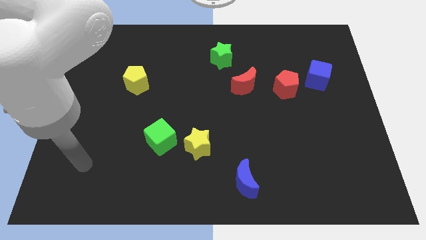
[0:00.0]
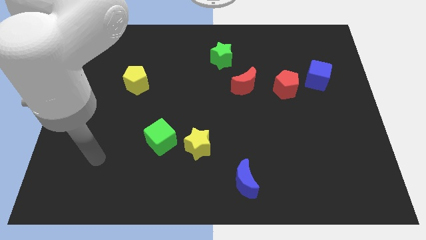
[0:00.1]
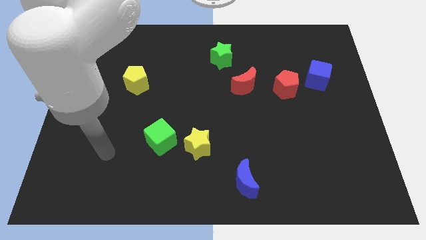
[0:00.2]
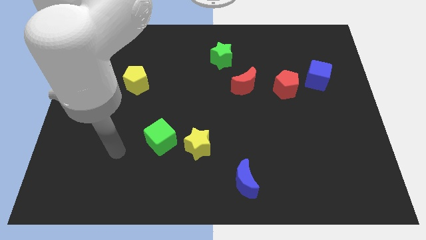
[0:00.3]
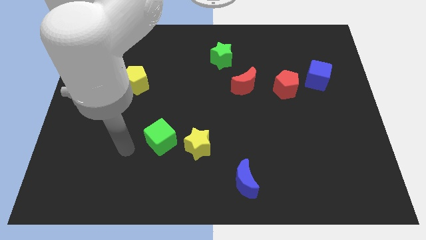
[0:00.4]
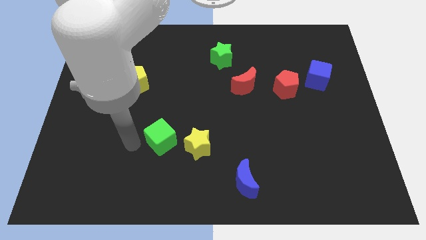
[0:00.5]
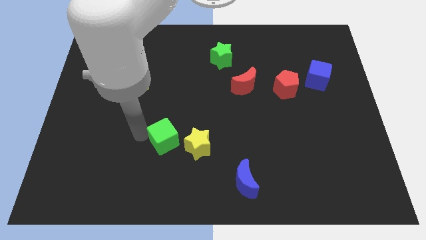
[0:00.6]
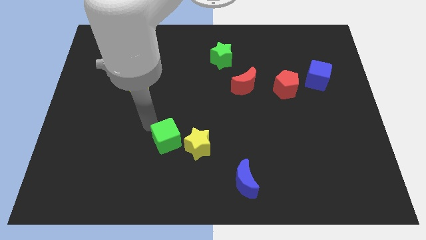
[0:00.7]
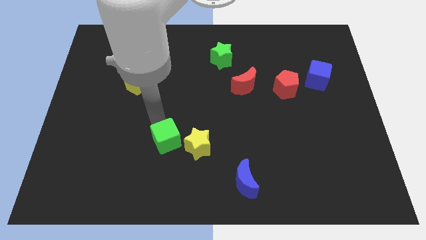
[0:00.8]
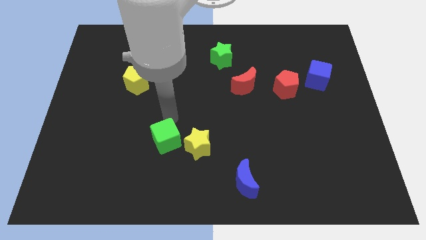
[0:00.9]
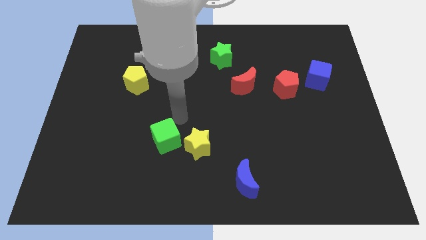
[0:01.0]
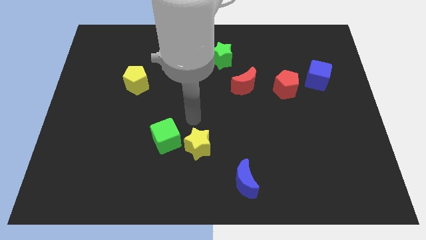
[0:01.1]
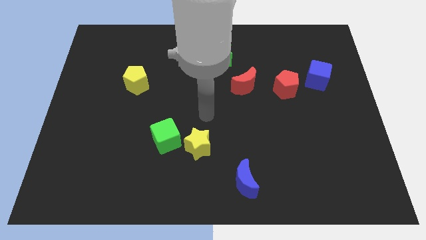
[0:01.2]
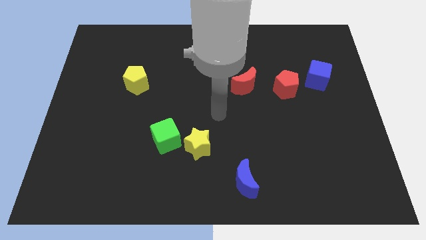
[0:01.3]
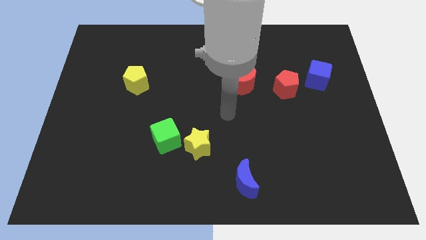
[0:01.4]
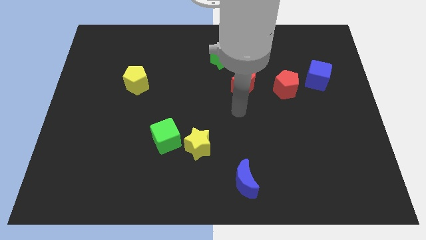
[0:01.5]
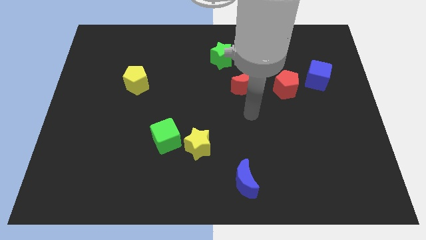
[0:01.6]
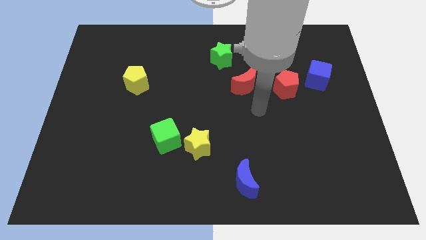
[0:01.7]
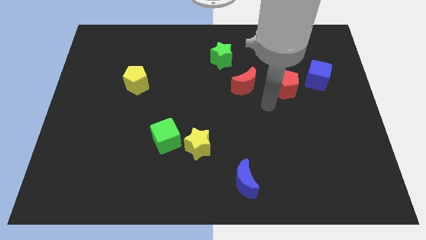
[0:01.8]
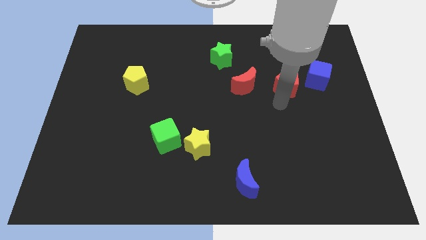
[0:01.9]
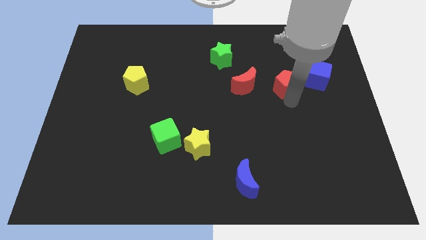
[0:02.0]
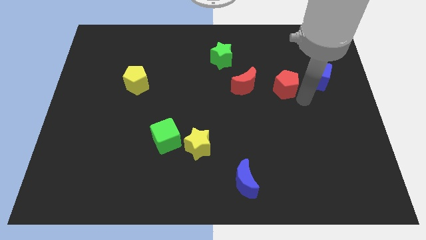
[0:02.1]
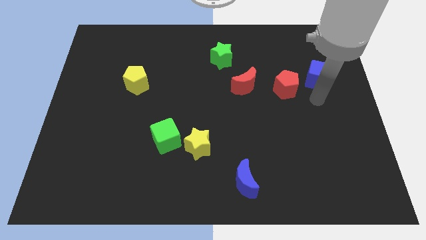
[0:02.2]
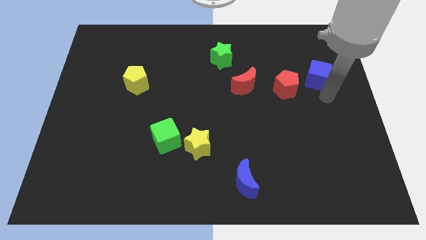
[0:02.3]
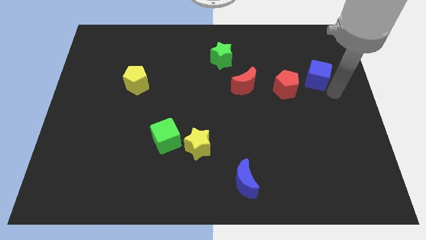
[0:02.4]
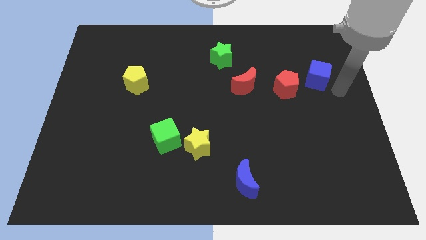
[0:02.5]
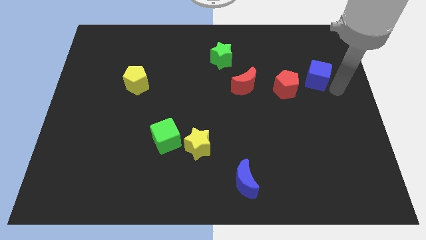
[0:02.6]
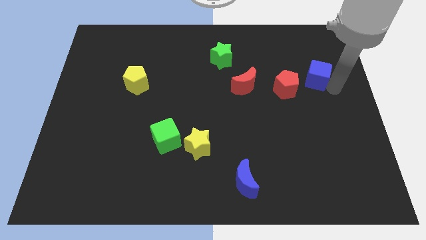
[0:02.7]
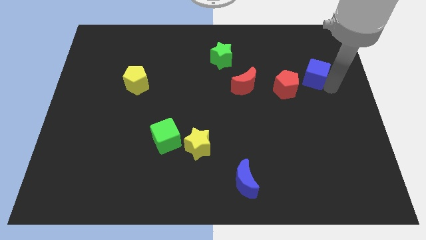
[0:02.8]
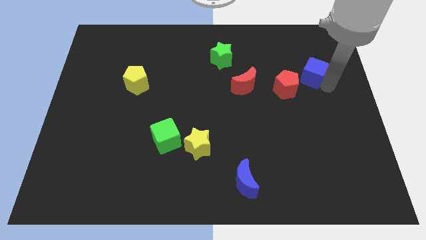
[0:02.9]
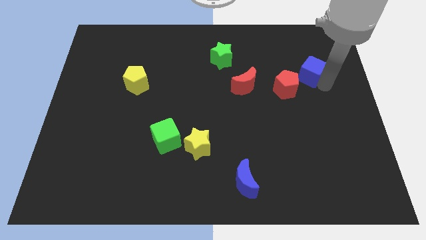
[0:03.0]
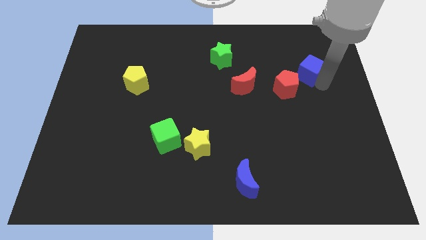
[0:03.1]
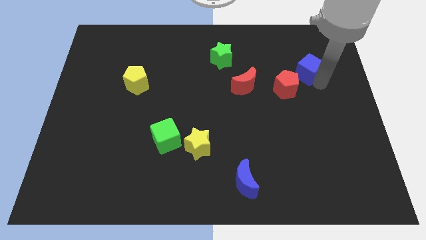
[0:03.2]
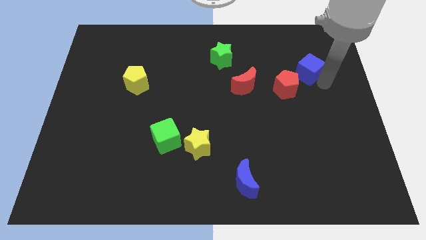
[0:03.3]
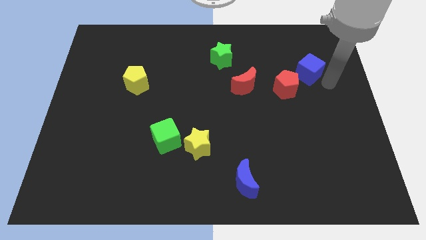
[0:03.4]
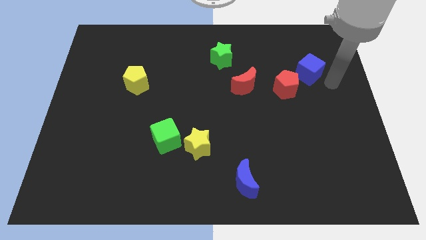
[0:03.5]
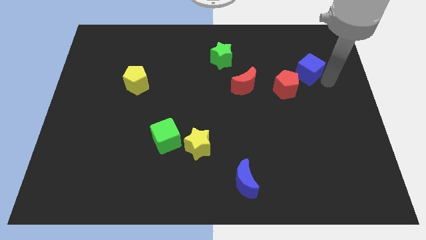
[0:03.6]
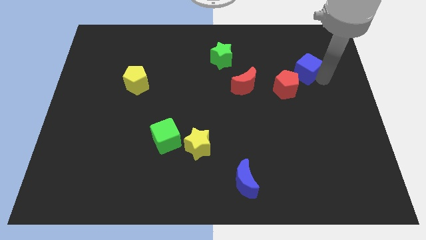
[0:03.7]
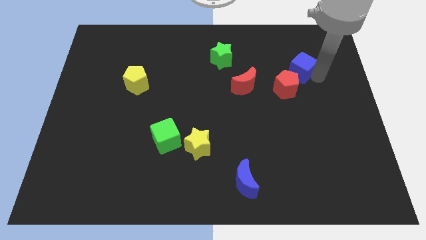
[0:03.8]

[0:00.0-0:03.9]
put the blue cube above the red pentagon

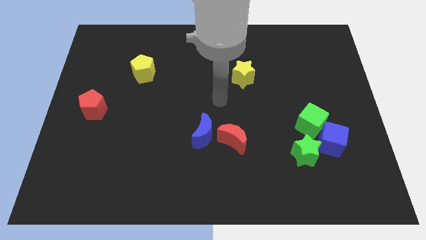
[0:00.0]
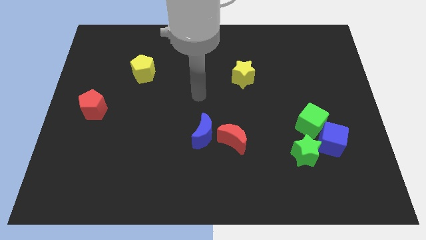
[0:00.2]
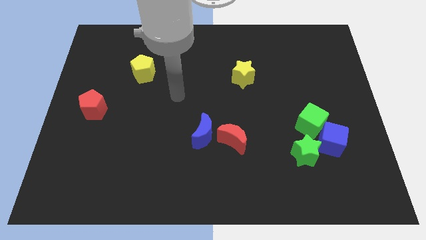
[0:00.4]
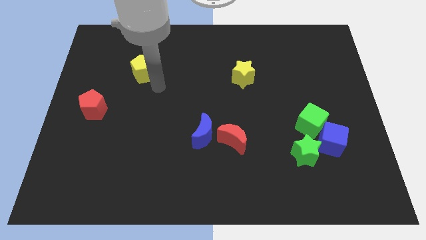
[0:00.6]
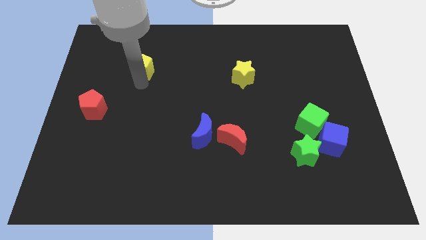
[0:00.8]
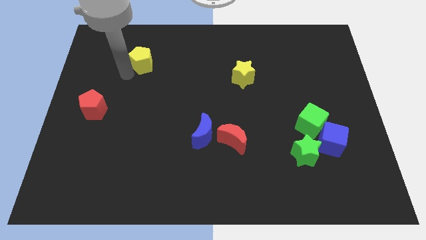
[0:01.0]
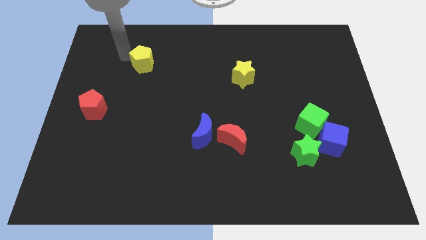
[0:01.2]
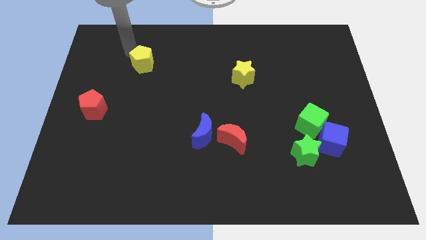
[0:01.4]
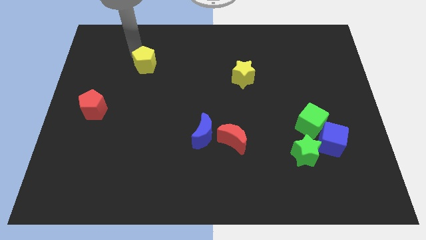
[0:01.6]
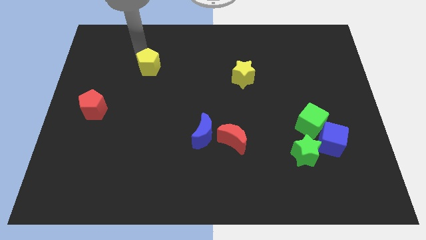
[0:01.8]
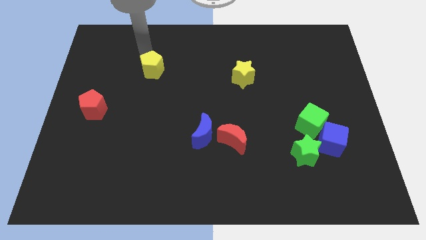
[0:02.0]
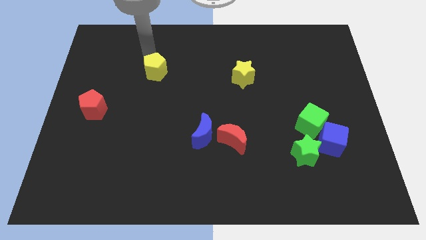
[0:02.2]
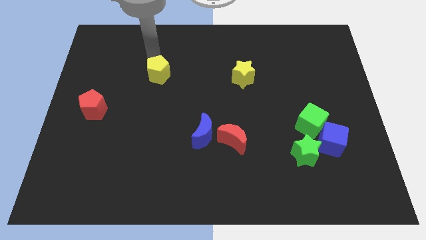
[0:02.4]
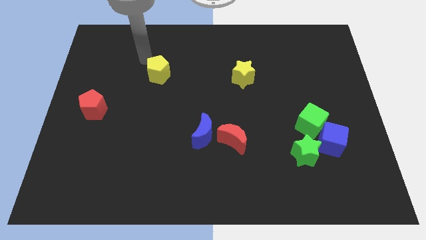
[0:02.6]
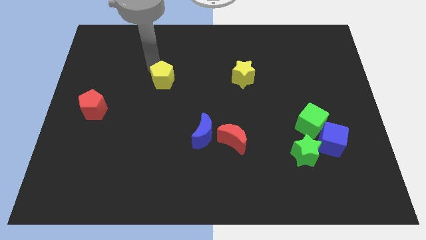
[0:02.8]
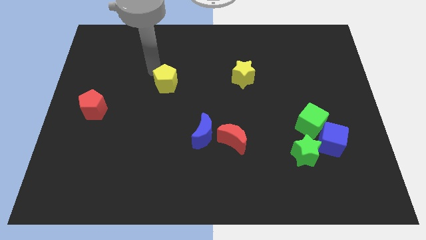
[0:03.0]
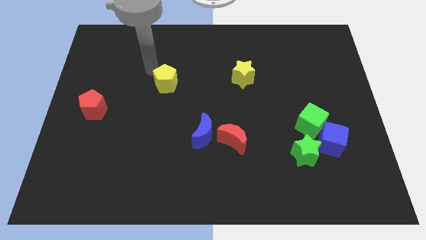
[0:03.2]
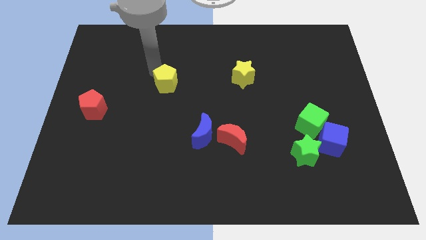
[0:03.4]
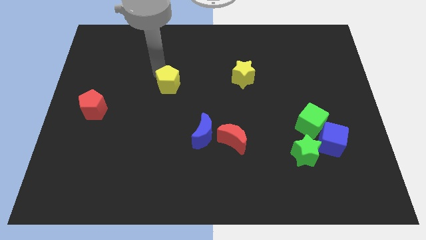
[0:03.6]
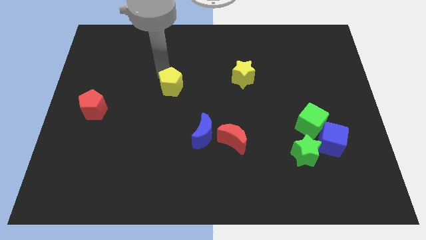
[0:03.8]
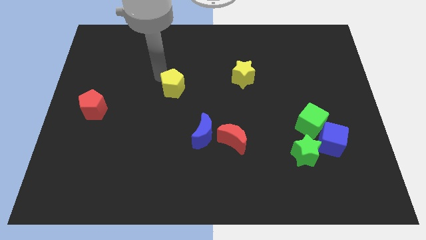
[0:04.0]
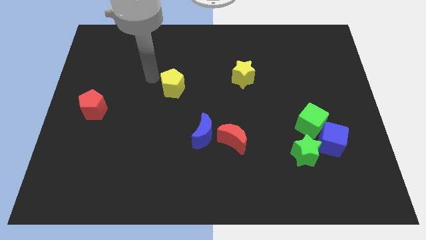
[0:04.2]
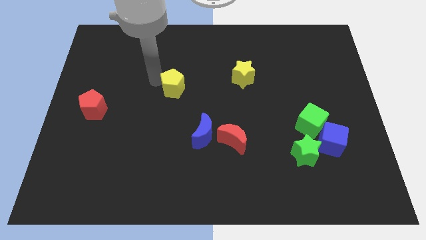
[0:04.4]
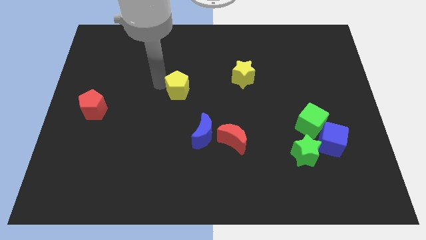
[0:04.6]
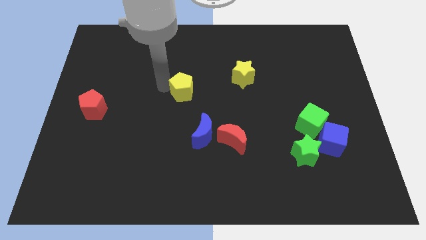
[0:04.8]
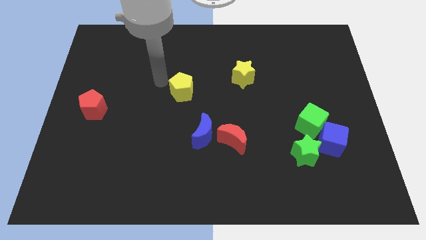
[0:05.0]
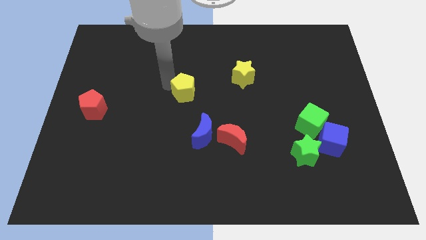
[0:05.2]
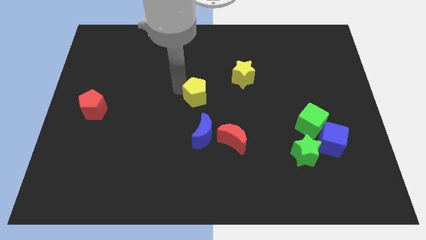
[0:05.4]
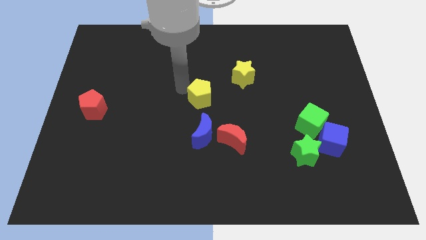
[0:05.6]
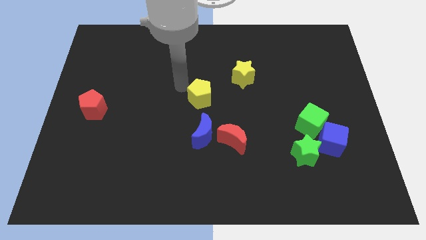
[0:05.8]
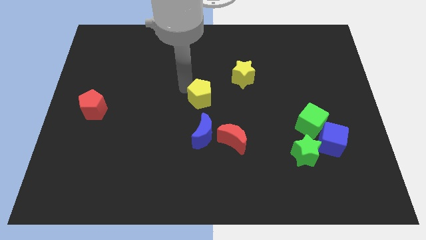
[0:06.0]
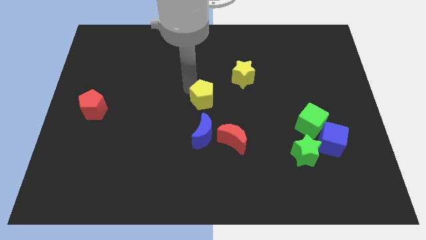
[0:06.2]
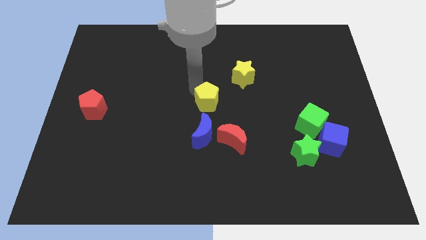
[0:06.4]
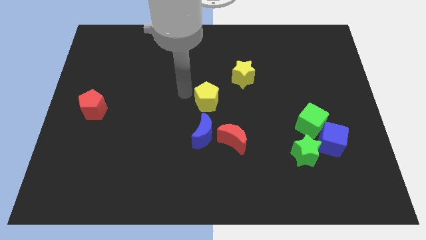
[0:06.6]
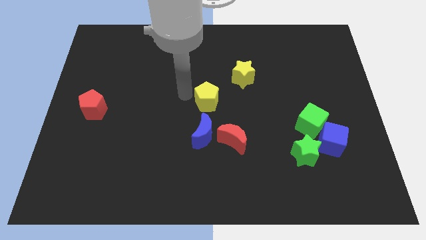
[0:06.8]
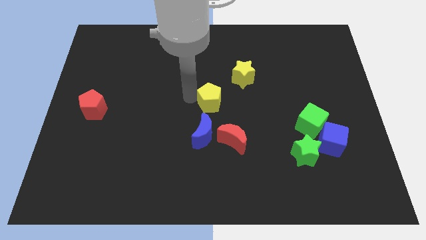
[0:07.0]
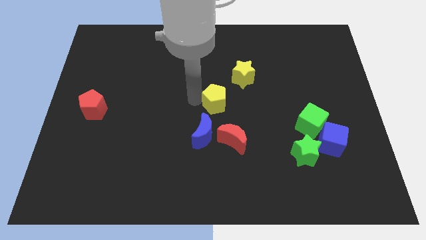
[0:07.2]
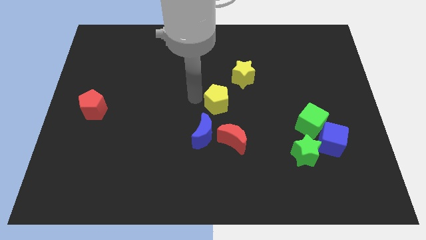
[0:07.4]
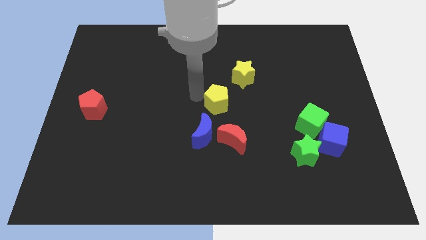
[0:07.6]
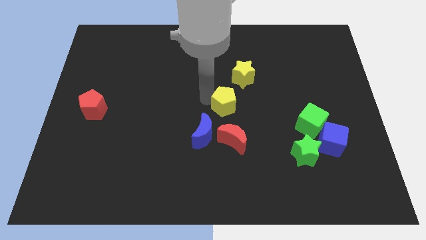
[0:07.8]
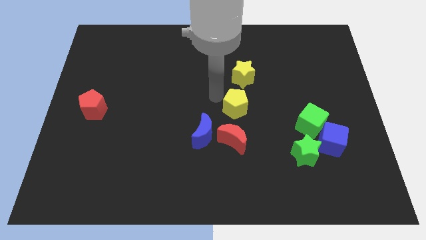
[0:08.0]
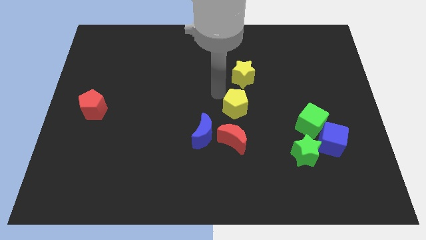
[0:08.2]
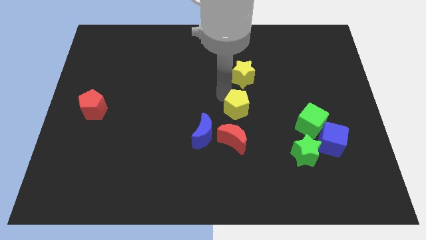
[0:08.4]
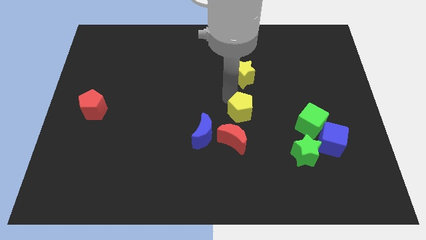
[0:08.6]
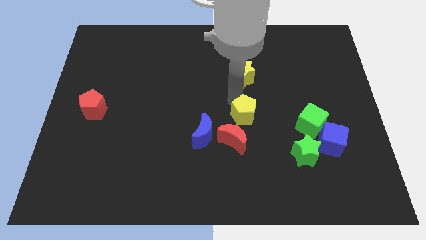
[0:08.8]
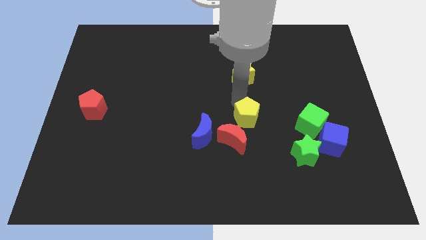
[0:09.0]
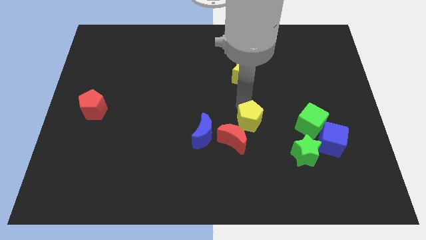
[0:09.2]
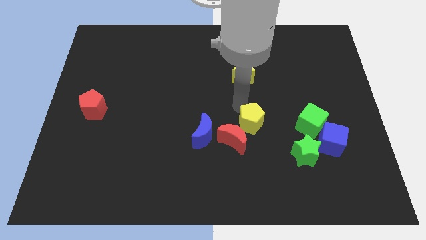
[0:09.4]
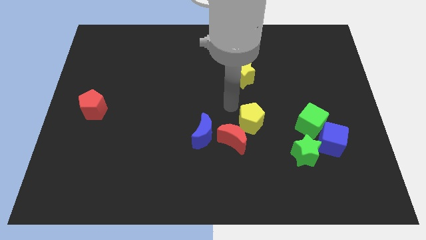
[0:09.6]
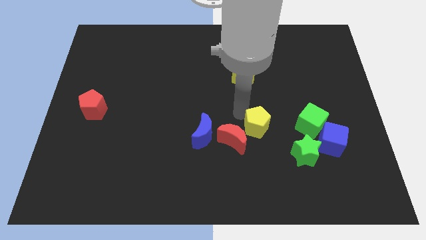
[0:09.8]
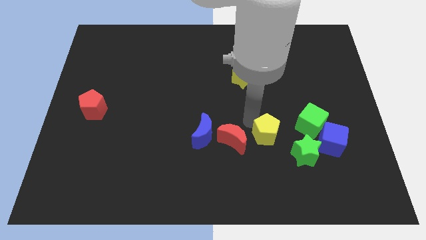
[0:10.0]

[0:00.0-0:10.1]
put the yellow pentagon to the left side of the blue cube
